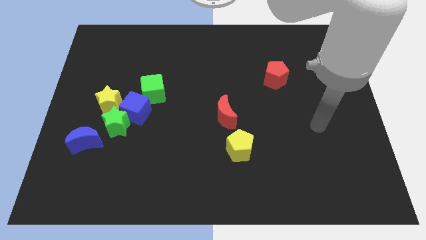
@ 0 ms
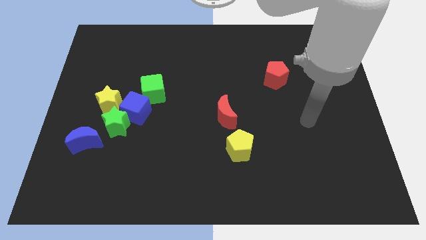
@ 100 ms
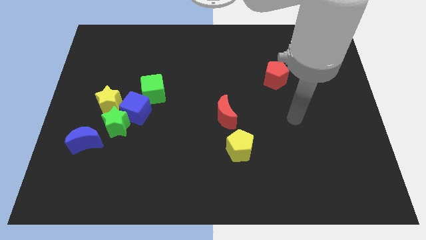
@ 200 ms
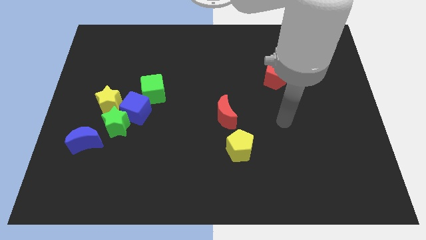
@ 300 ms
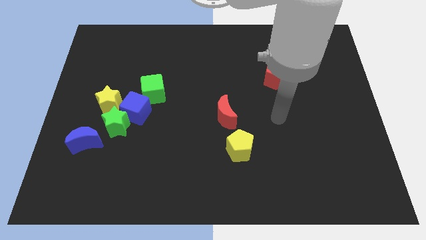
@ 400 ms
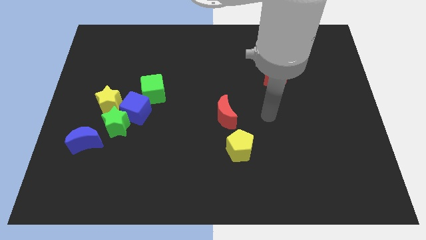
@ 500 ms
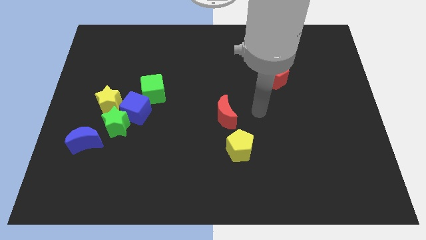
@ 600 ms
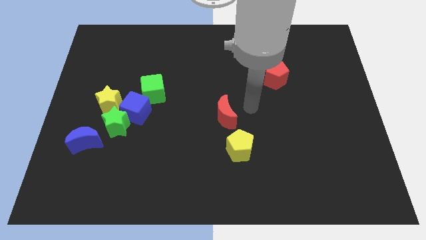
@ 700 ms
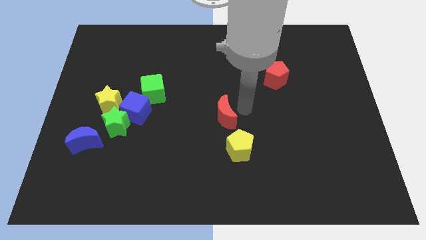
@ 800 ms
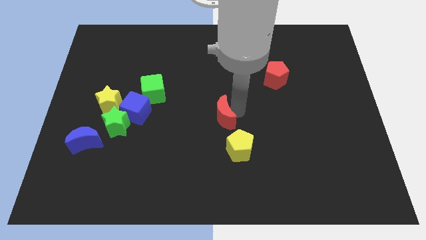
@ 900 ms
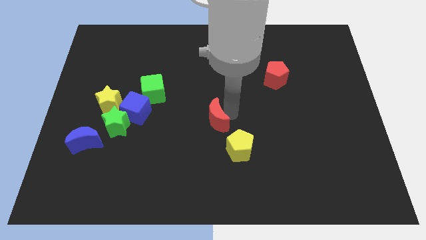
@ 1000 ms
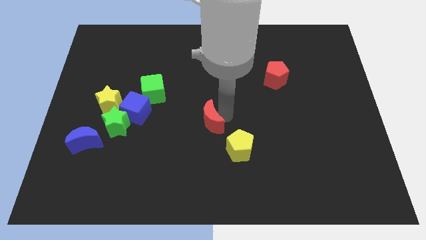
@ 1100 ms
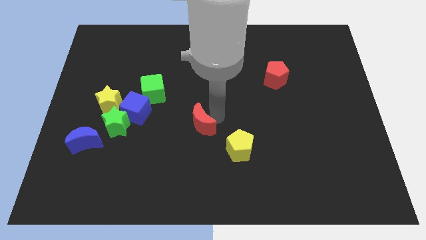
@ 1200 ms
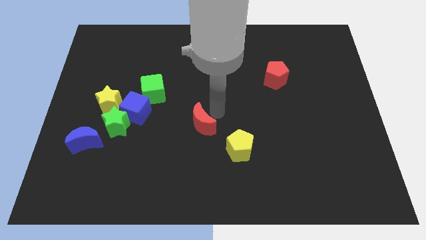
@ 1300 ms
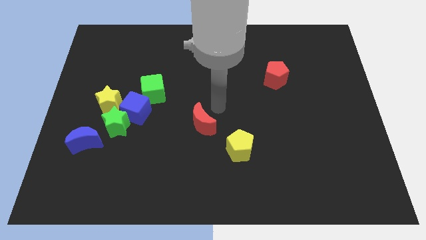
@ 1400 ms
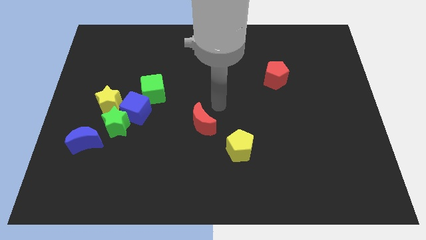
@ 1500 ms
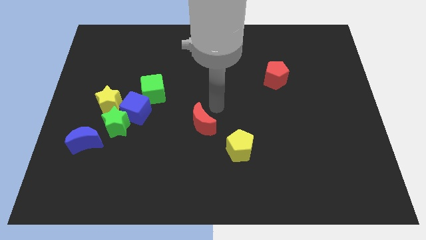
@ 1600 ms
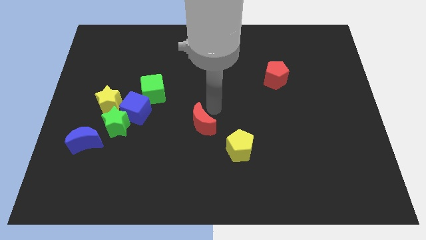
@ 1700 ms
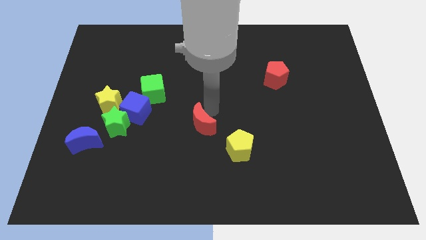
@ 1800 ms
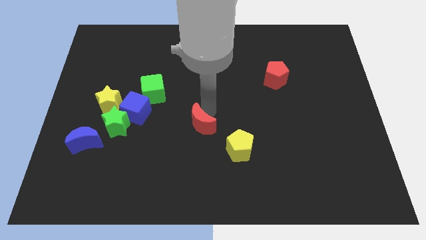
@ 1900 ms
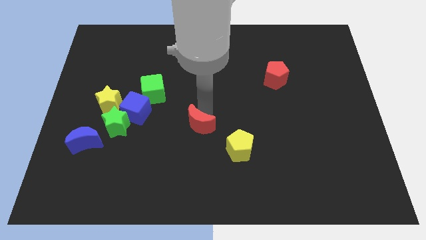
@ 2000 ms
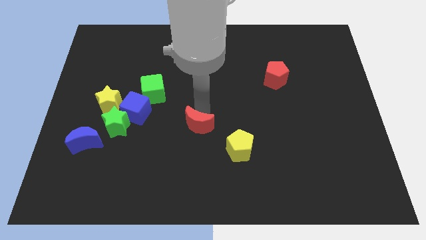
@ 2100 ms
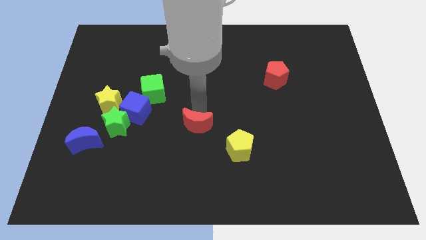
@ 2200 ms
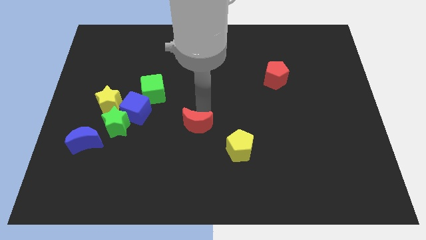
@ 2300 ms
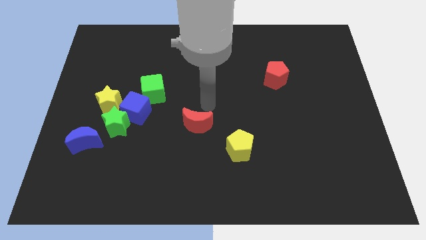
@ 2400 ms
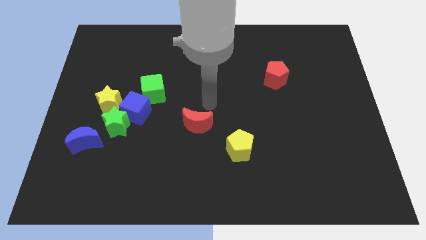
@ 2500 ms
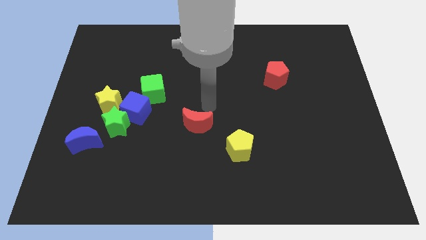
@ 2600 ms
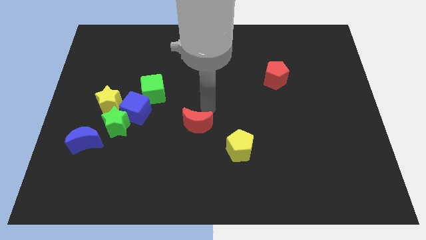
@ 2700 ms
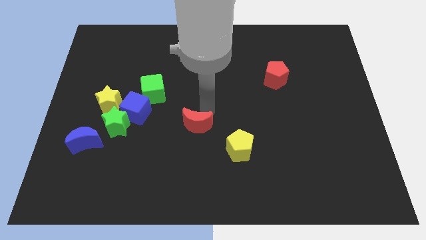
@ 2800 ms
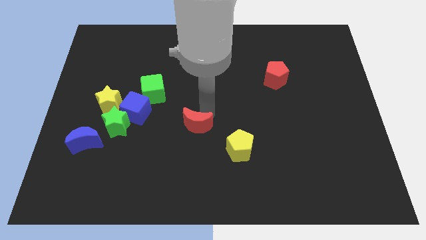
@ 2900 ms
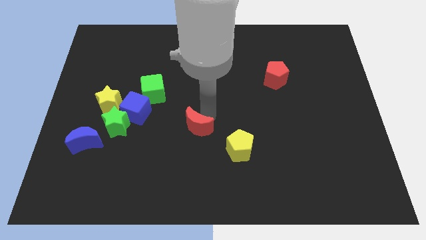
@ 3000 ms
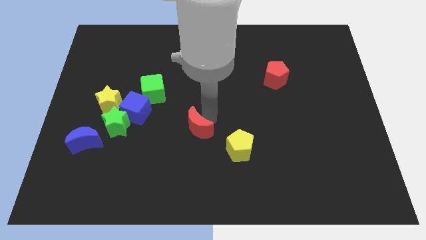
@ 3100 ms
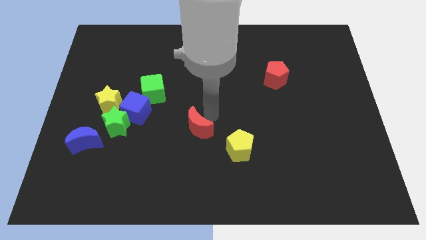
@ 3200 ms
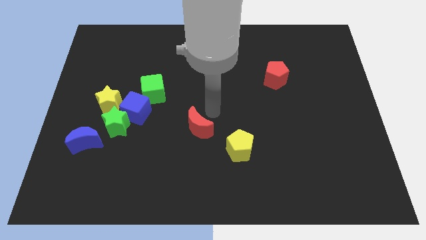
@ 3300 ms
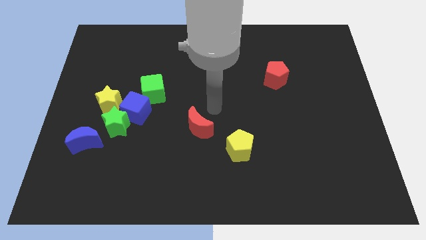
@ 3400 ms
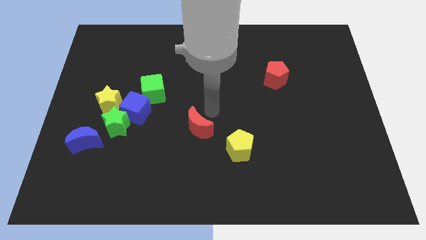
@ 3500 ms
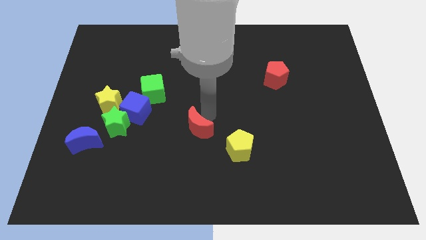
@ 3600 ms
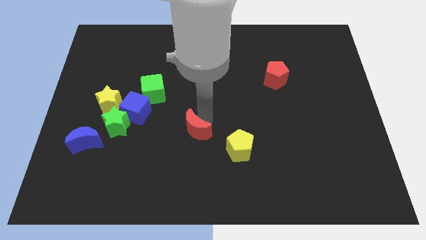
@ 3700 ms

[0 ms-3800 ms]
slightly slide the red moon down and to the left

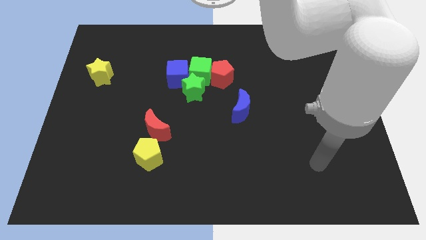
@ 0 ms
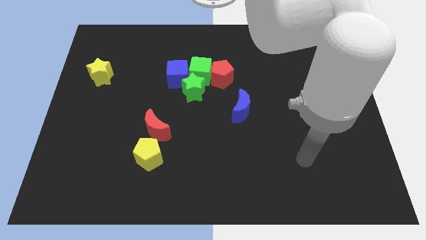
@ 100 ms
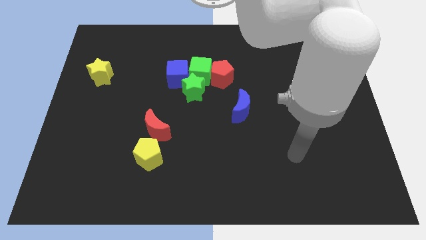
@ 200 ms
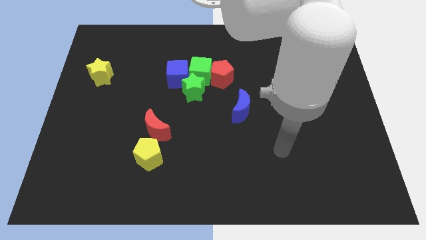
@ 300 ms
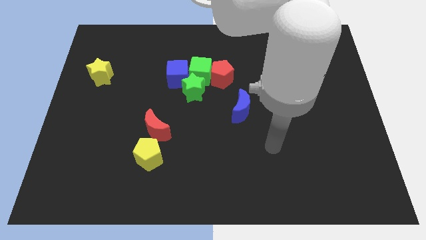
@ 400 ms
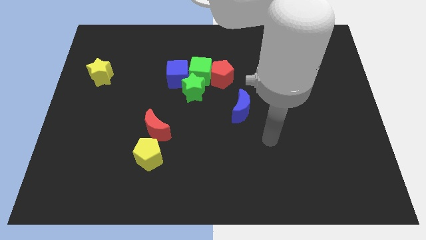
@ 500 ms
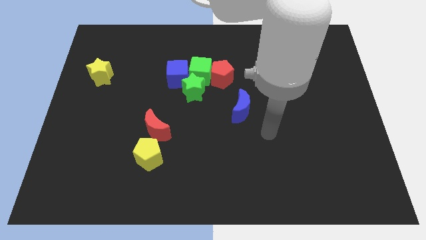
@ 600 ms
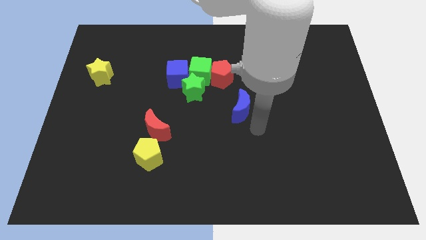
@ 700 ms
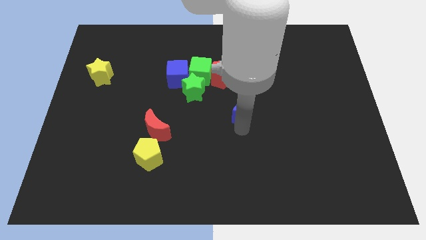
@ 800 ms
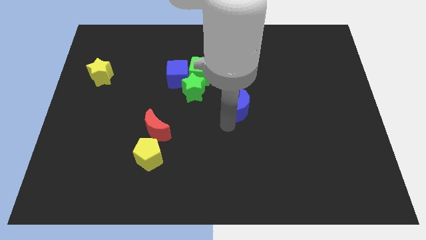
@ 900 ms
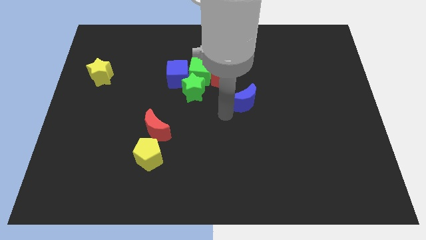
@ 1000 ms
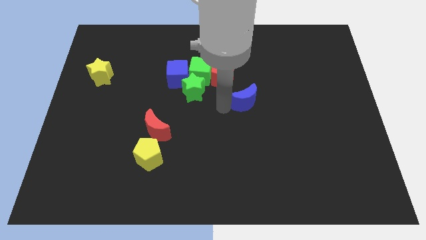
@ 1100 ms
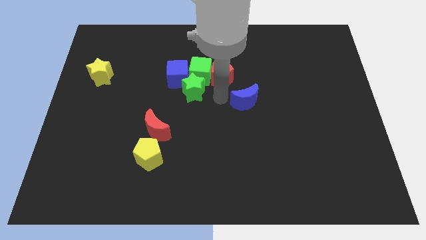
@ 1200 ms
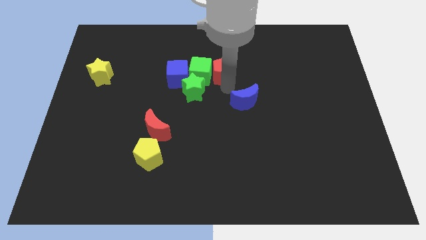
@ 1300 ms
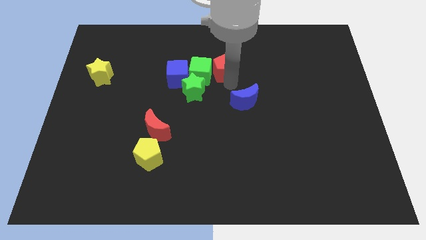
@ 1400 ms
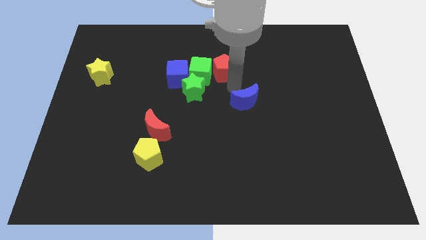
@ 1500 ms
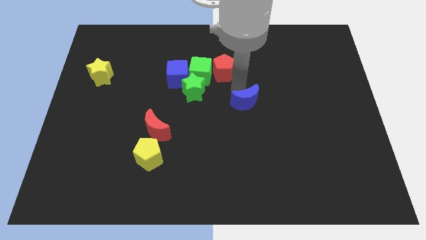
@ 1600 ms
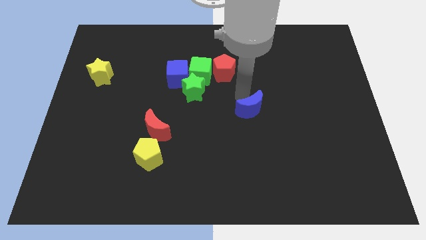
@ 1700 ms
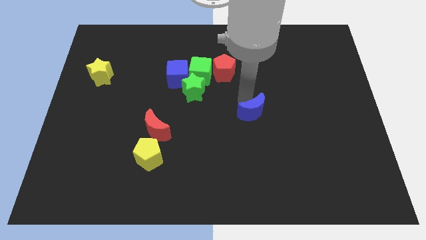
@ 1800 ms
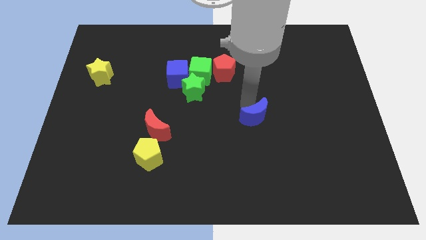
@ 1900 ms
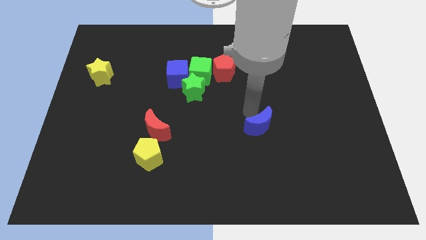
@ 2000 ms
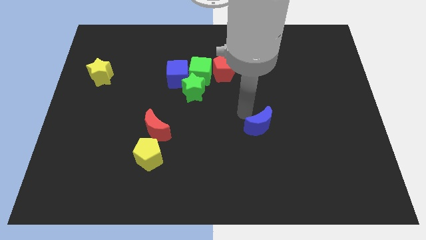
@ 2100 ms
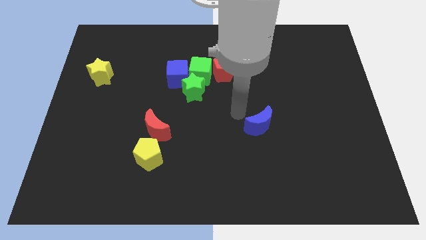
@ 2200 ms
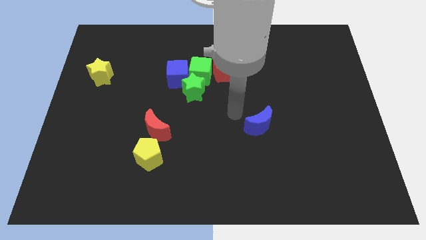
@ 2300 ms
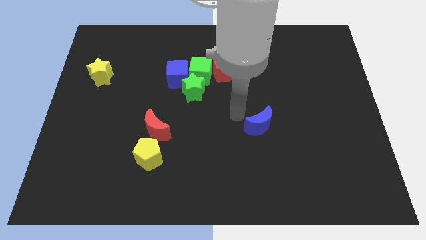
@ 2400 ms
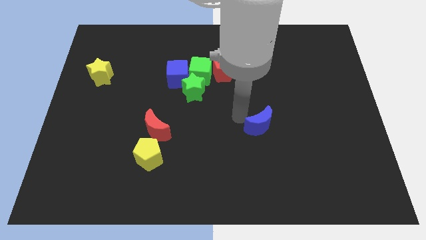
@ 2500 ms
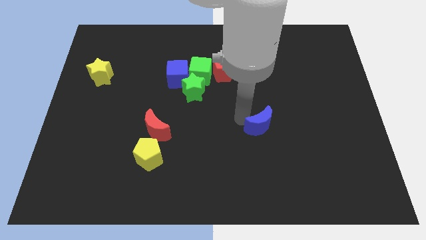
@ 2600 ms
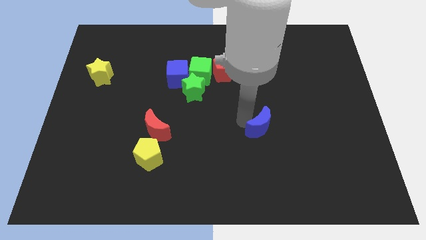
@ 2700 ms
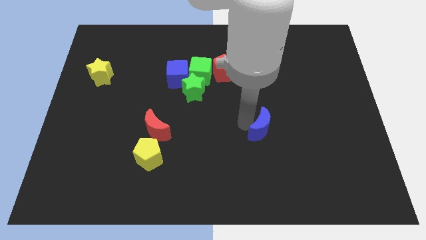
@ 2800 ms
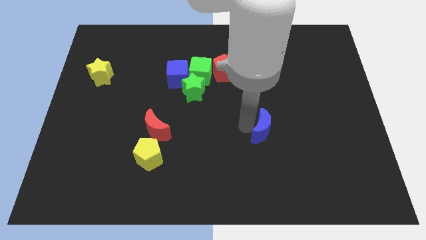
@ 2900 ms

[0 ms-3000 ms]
push the blue moon down and to the right a little bit

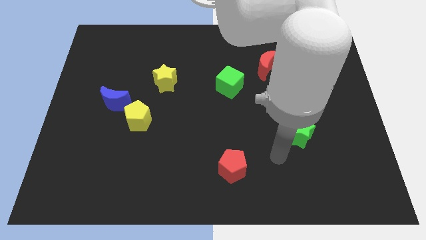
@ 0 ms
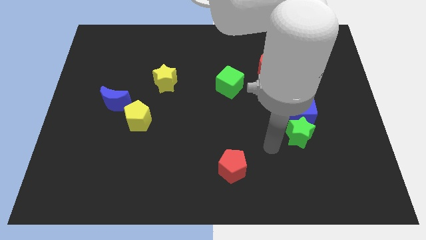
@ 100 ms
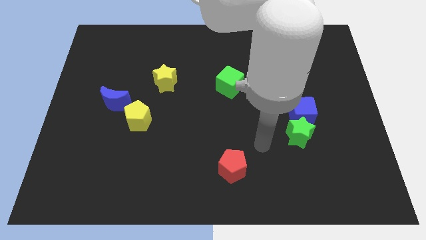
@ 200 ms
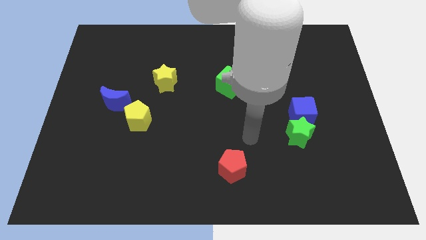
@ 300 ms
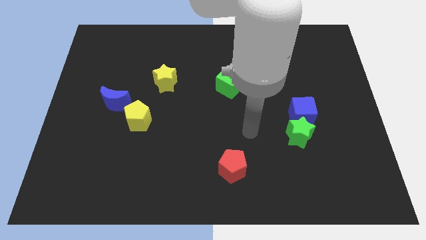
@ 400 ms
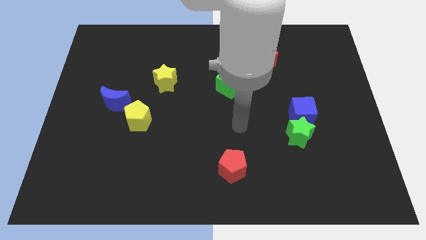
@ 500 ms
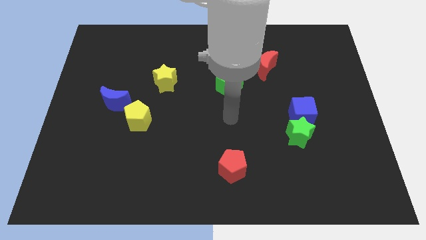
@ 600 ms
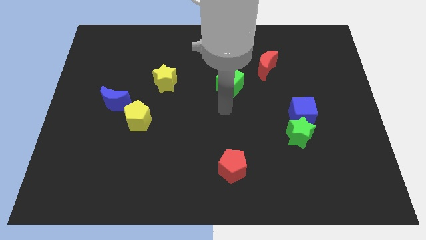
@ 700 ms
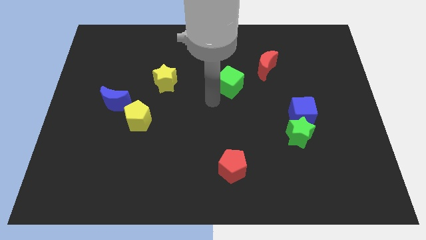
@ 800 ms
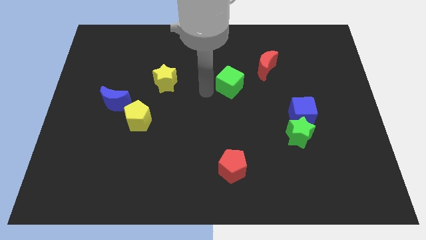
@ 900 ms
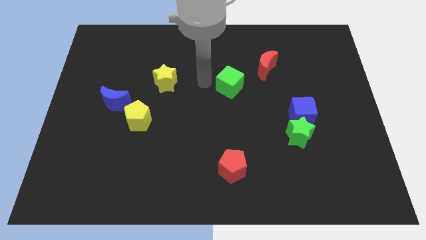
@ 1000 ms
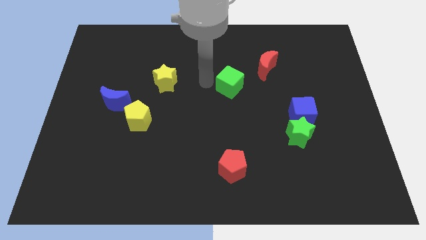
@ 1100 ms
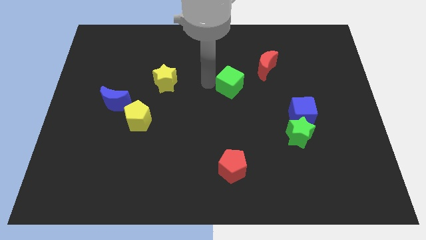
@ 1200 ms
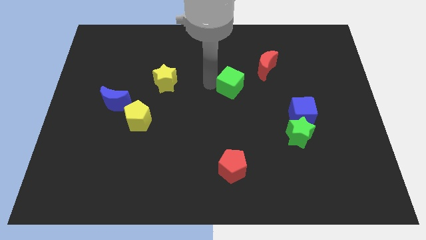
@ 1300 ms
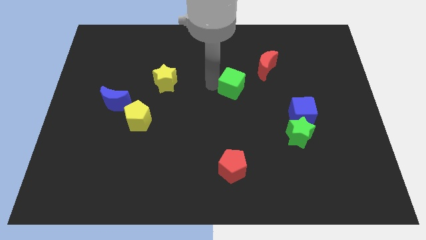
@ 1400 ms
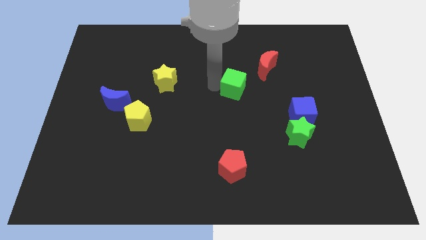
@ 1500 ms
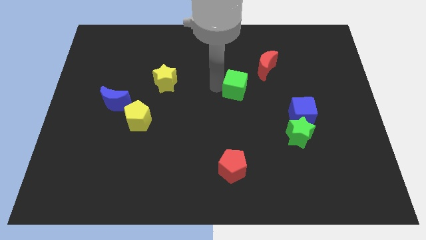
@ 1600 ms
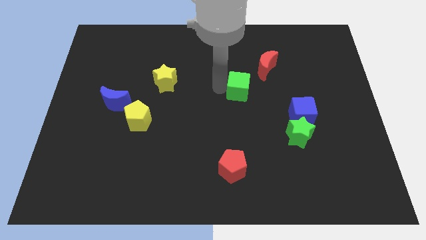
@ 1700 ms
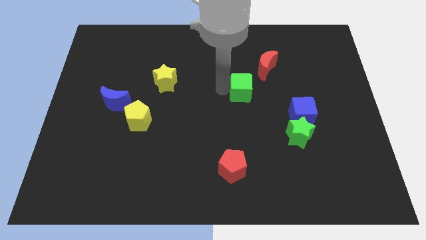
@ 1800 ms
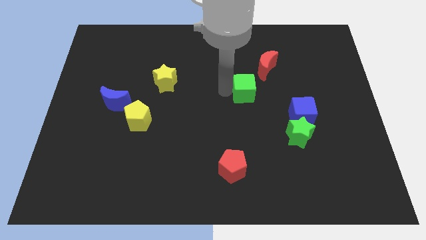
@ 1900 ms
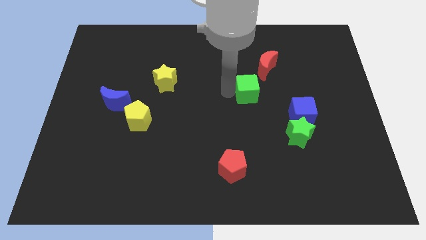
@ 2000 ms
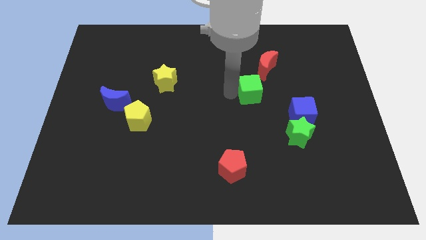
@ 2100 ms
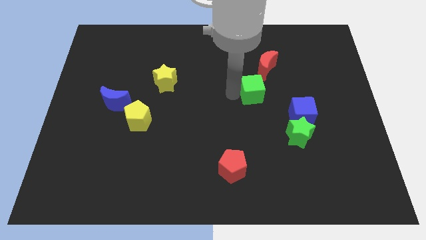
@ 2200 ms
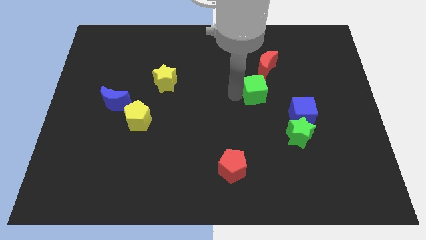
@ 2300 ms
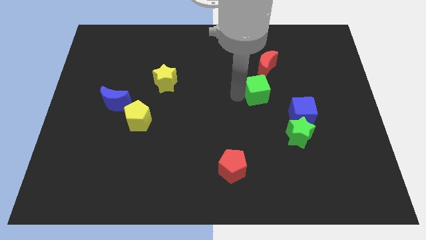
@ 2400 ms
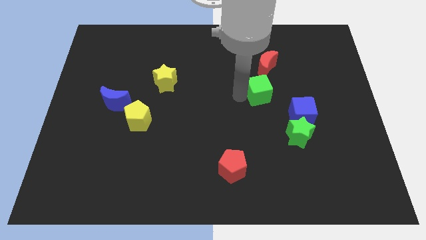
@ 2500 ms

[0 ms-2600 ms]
slide the green cube to the right a little bit
